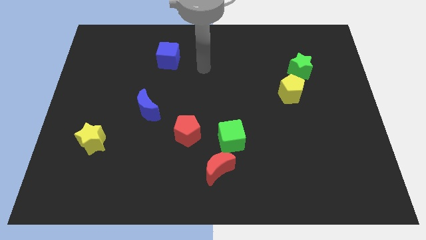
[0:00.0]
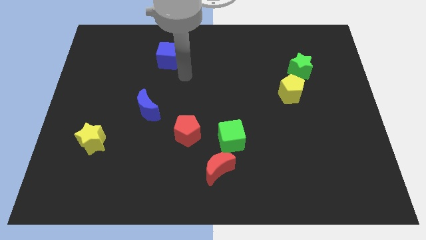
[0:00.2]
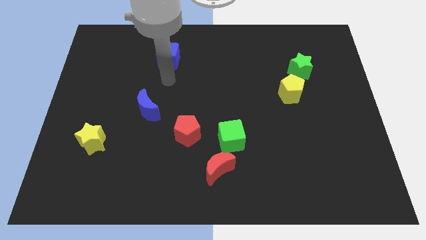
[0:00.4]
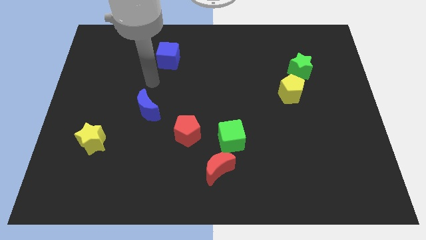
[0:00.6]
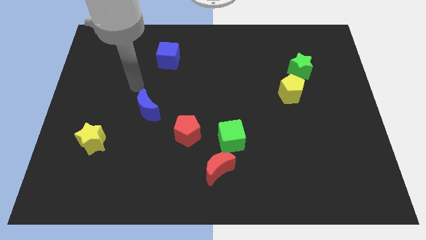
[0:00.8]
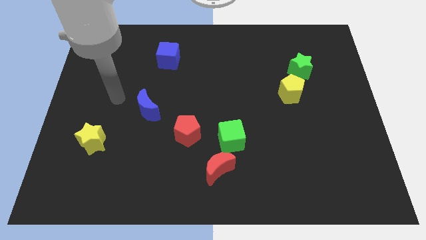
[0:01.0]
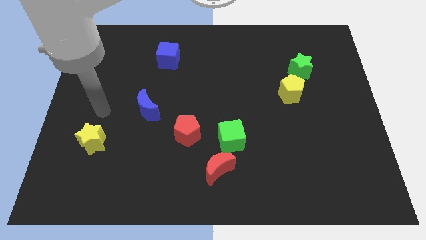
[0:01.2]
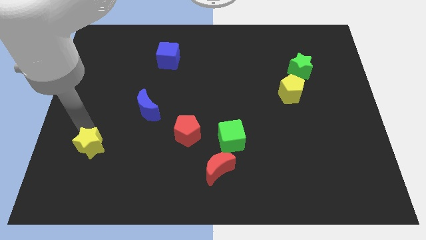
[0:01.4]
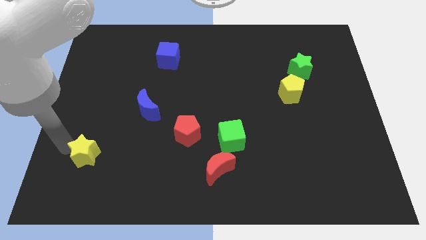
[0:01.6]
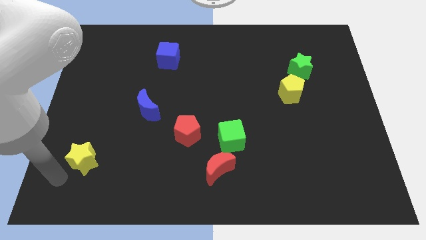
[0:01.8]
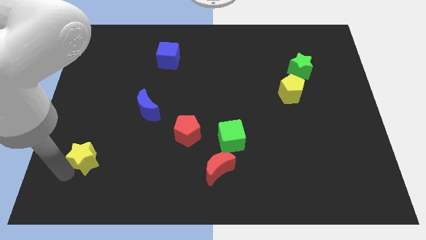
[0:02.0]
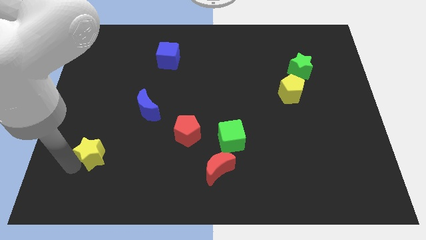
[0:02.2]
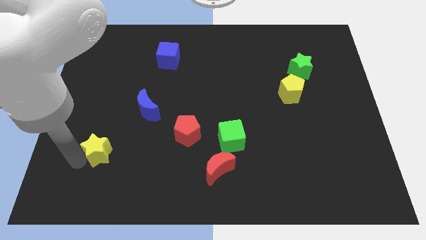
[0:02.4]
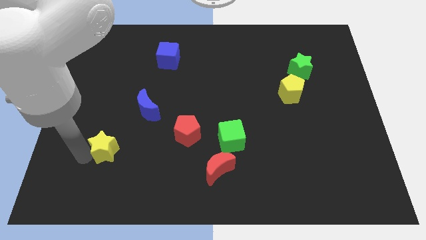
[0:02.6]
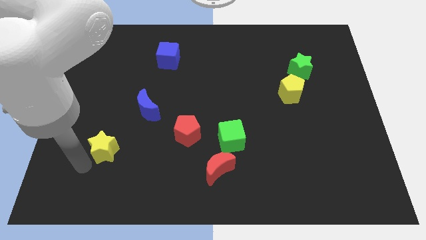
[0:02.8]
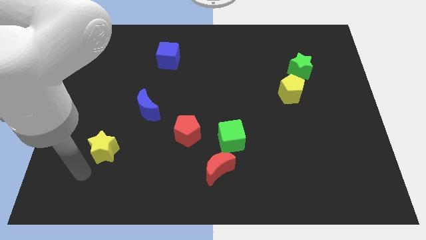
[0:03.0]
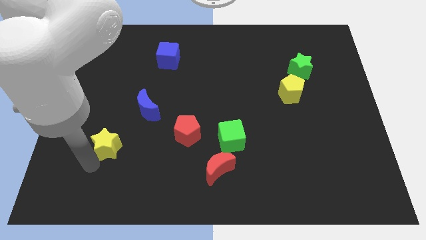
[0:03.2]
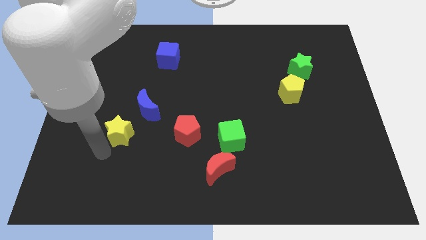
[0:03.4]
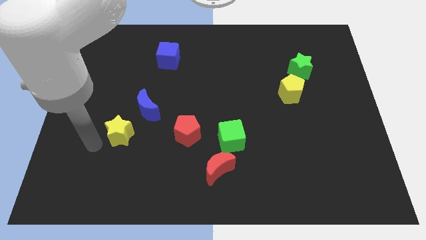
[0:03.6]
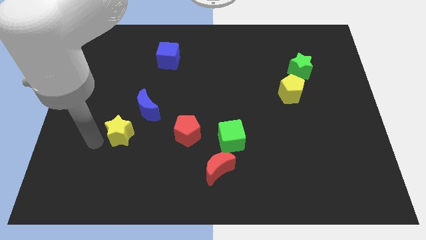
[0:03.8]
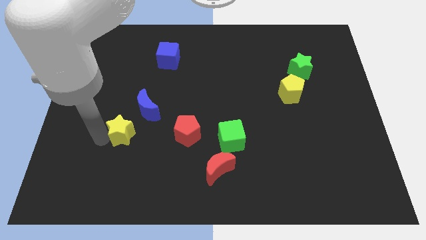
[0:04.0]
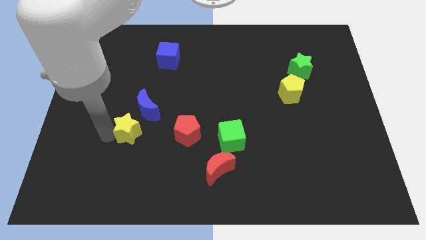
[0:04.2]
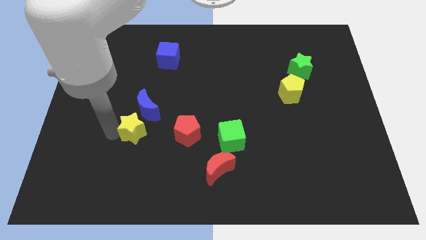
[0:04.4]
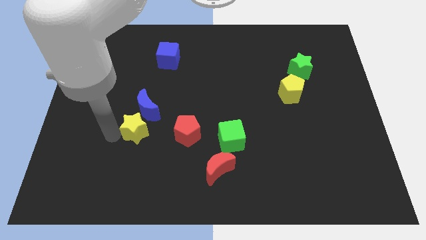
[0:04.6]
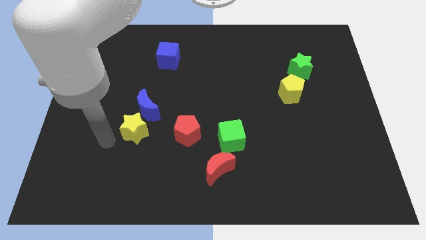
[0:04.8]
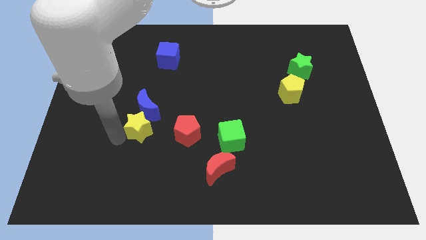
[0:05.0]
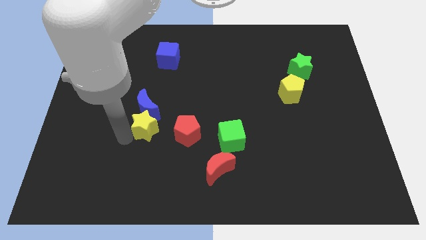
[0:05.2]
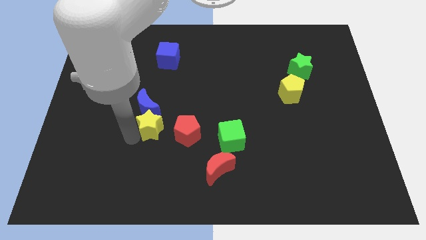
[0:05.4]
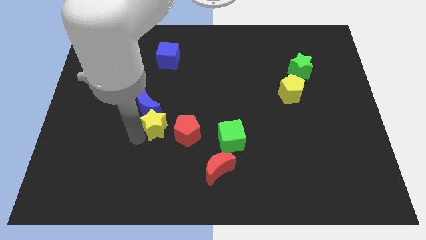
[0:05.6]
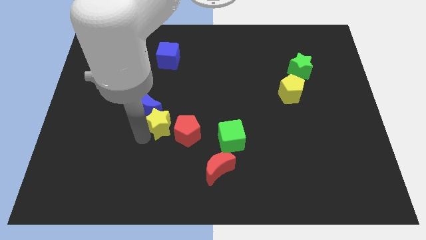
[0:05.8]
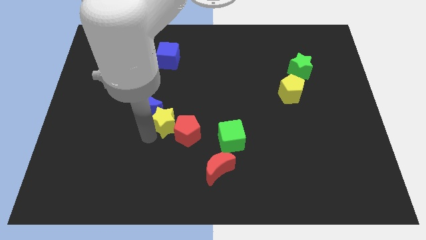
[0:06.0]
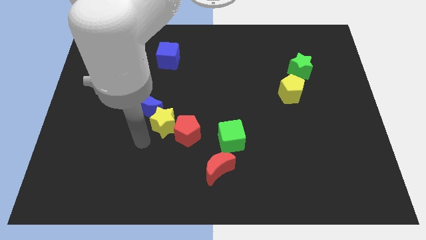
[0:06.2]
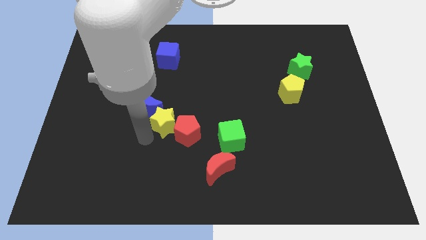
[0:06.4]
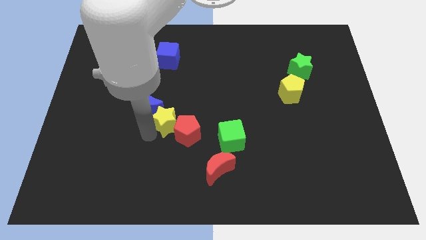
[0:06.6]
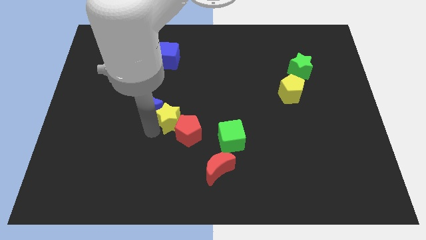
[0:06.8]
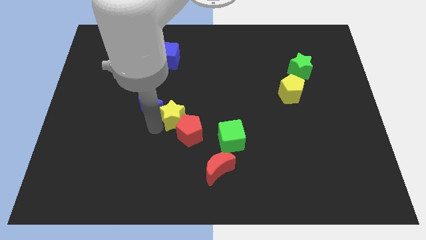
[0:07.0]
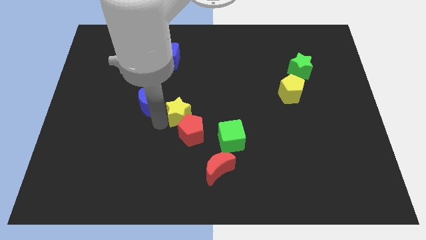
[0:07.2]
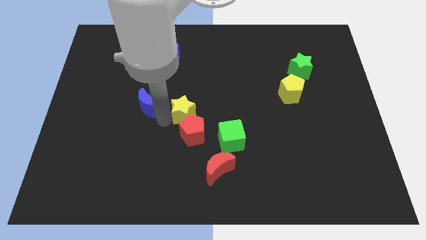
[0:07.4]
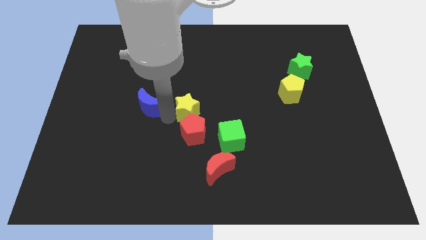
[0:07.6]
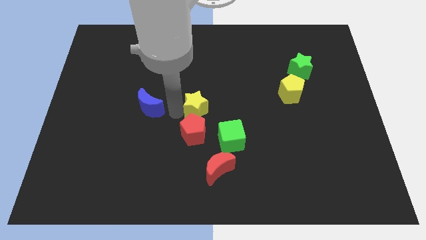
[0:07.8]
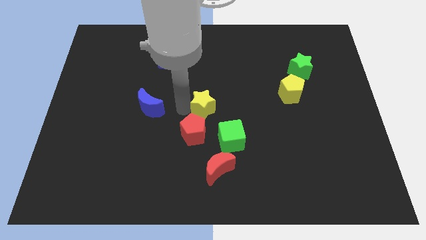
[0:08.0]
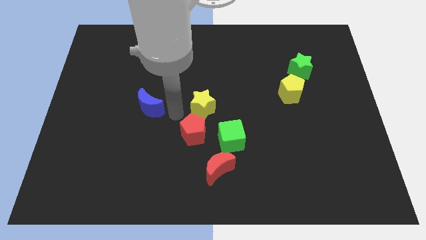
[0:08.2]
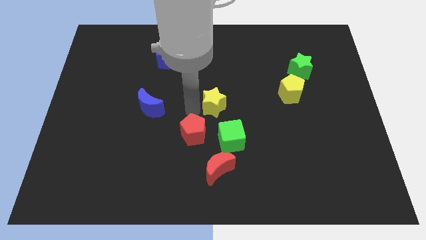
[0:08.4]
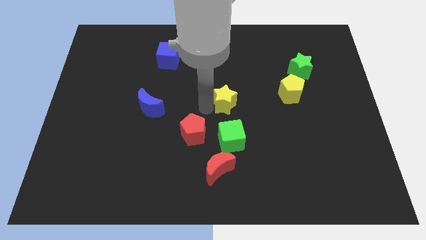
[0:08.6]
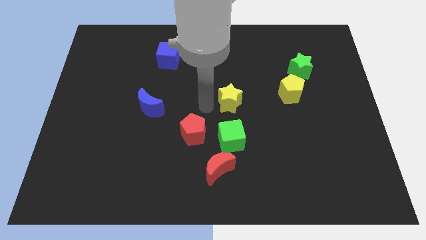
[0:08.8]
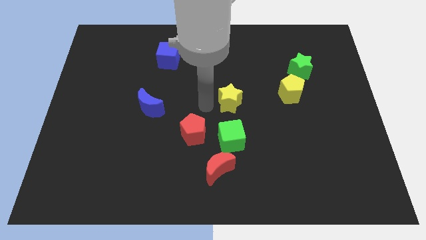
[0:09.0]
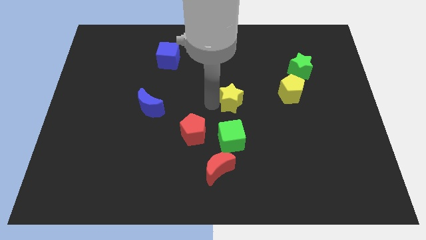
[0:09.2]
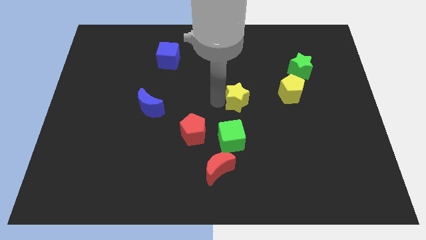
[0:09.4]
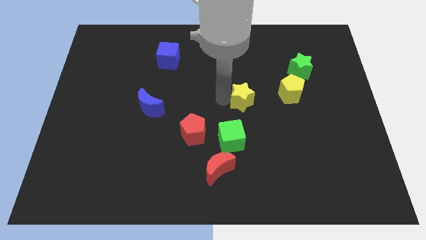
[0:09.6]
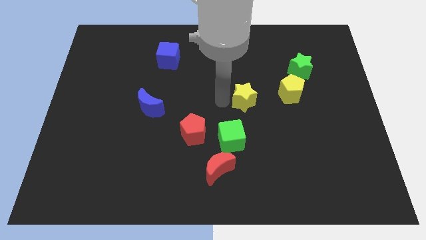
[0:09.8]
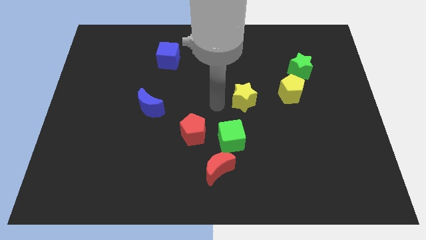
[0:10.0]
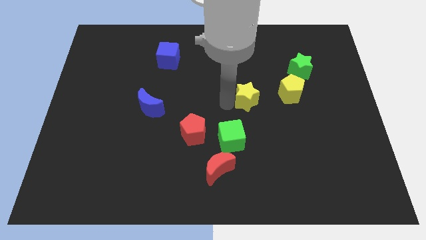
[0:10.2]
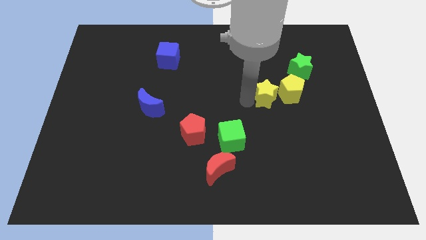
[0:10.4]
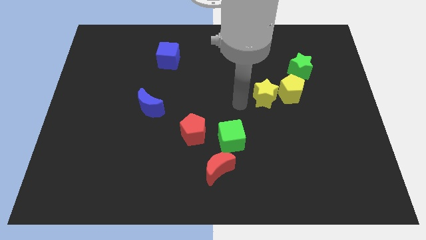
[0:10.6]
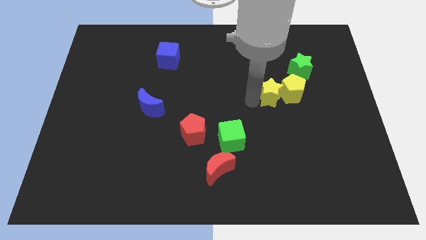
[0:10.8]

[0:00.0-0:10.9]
put the yellow star to the yellow pentagon

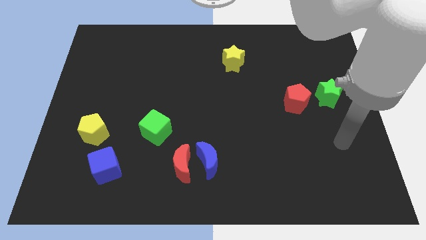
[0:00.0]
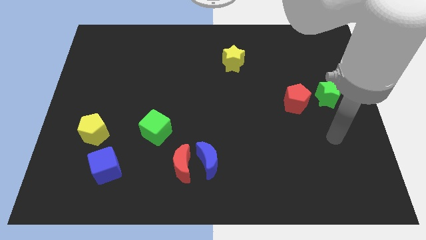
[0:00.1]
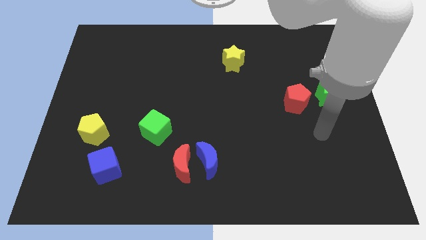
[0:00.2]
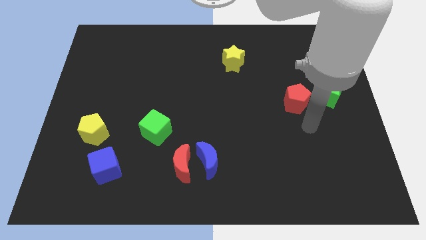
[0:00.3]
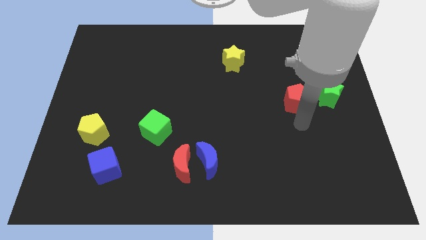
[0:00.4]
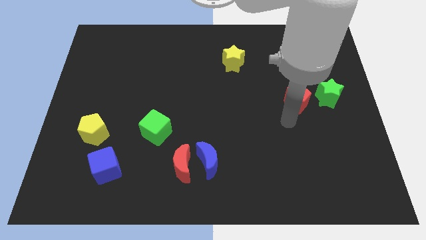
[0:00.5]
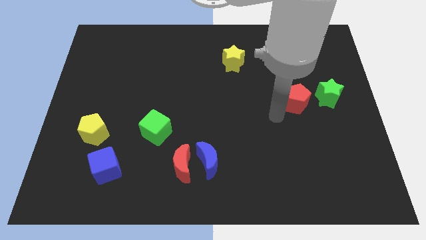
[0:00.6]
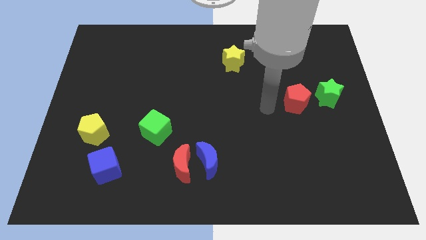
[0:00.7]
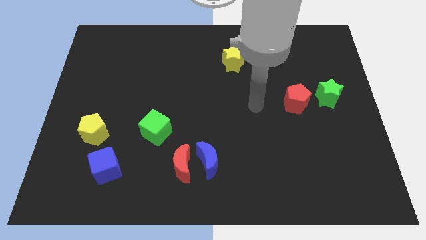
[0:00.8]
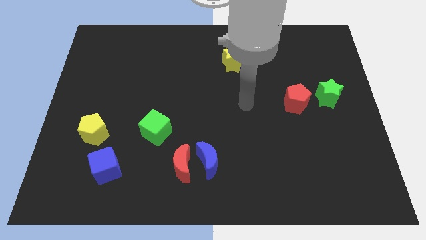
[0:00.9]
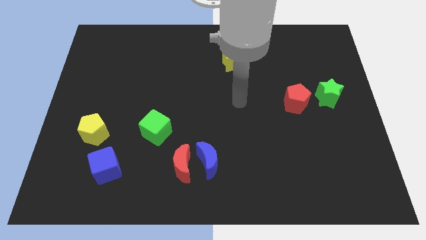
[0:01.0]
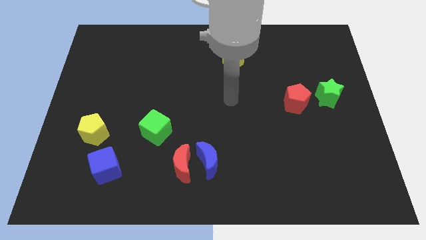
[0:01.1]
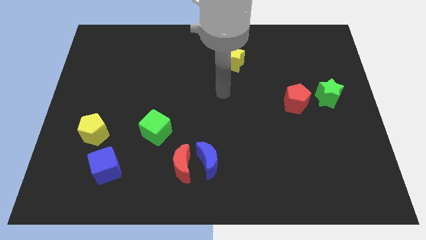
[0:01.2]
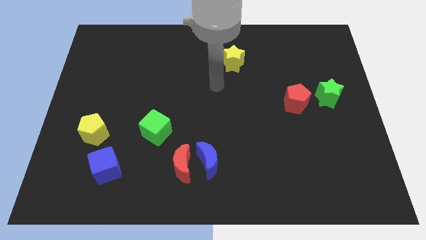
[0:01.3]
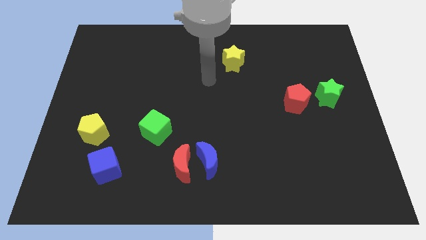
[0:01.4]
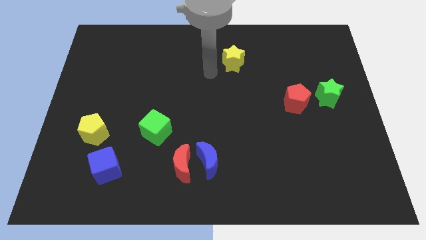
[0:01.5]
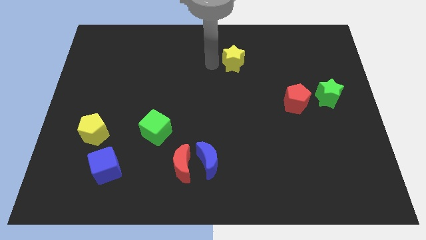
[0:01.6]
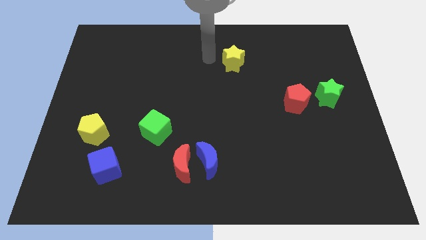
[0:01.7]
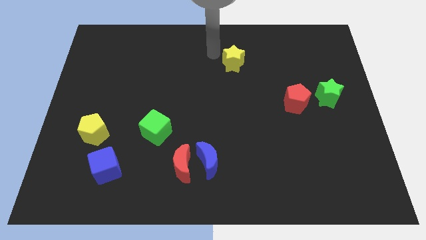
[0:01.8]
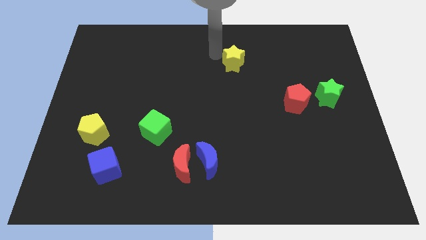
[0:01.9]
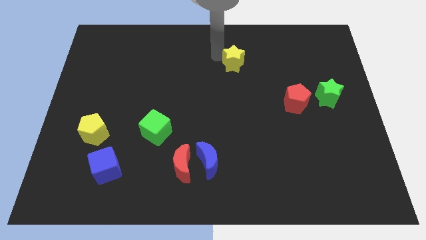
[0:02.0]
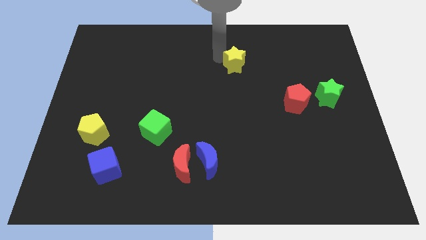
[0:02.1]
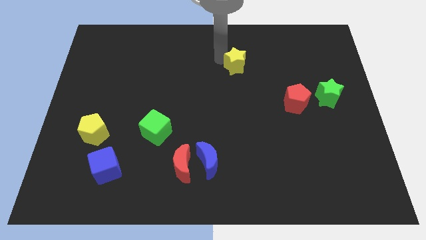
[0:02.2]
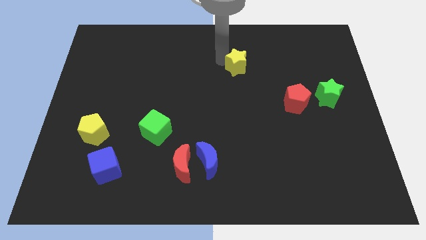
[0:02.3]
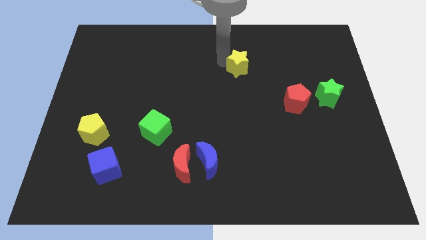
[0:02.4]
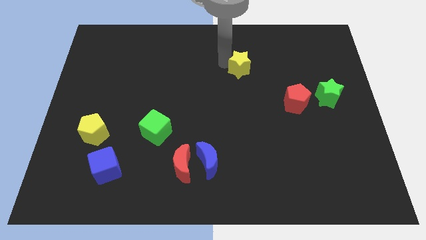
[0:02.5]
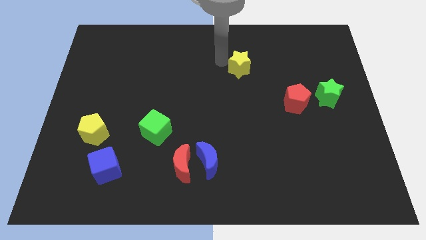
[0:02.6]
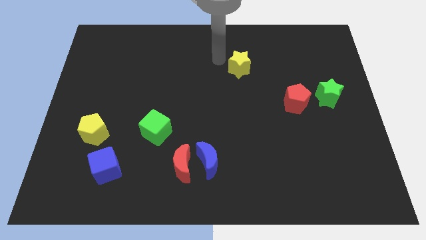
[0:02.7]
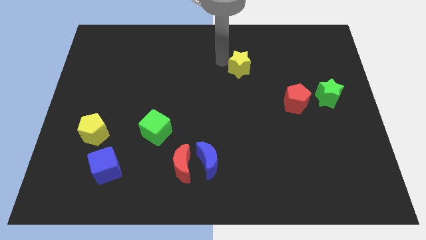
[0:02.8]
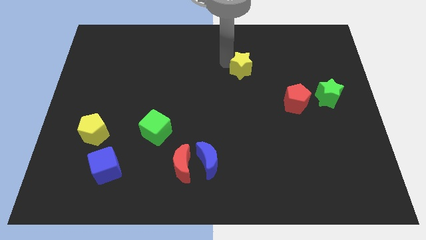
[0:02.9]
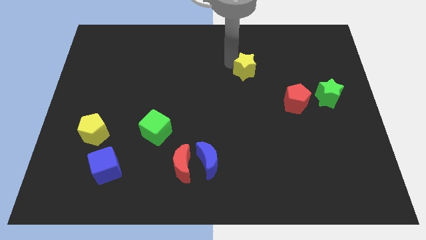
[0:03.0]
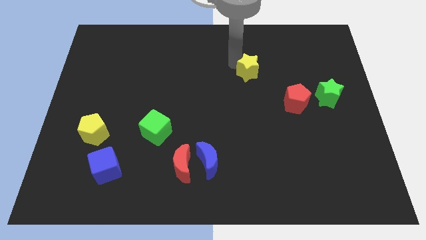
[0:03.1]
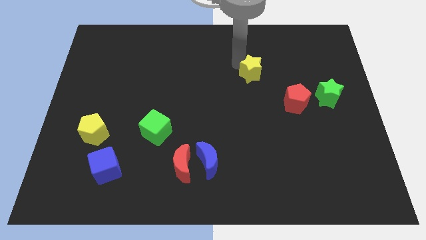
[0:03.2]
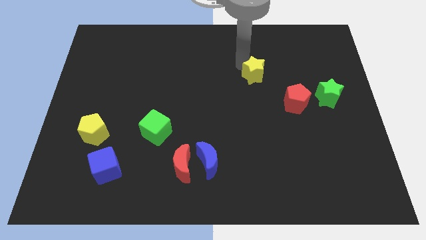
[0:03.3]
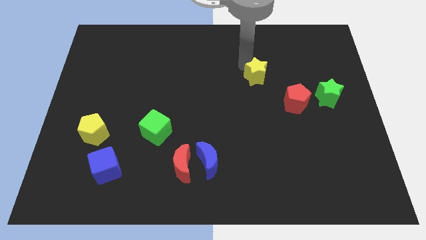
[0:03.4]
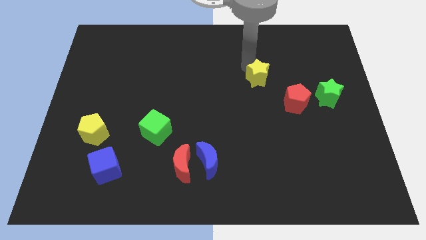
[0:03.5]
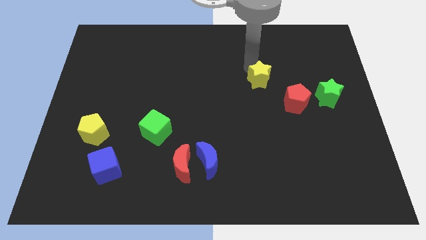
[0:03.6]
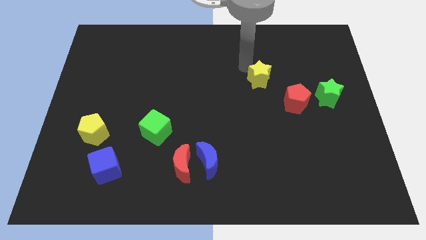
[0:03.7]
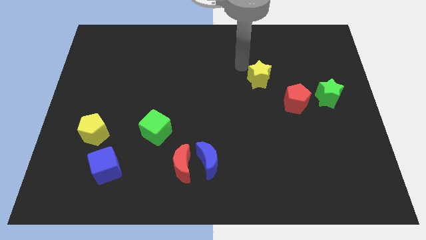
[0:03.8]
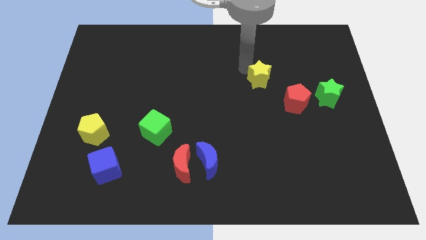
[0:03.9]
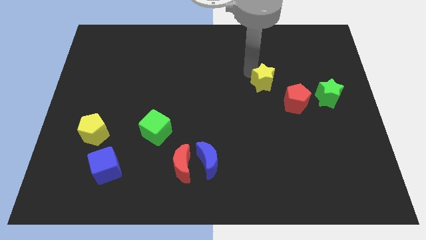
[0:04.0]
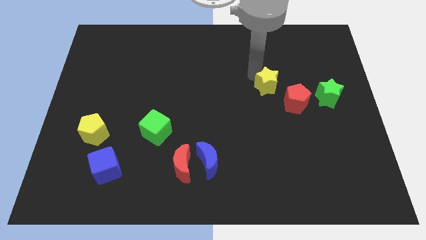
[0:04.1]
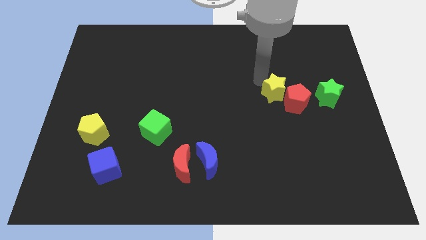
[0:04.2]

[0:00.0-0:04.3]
slide the yellow star next to the red pentagon
